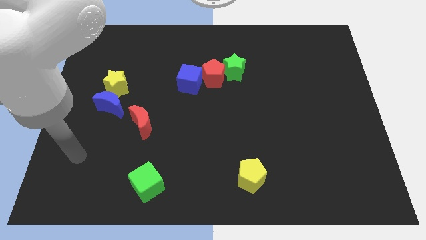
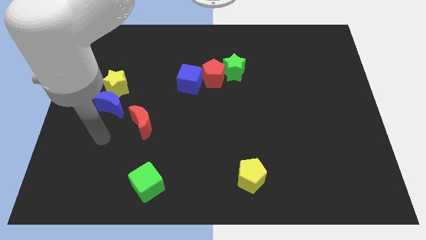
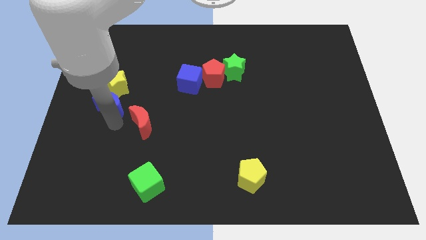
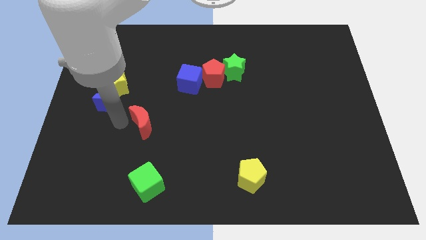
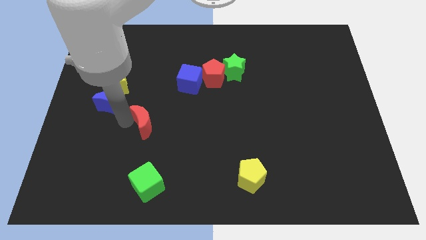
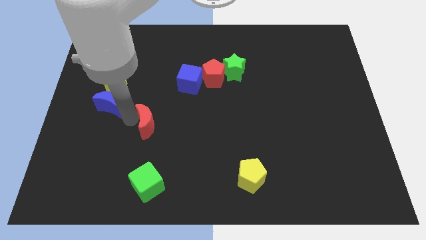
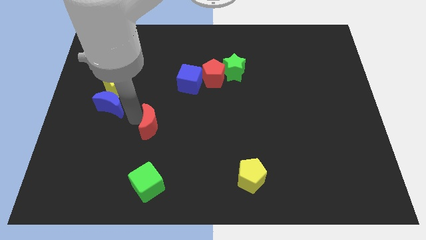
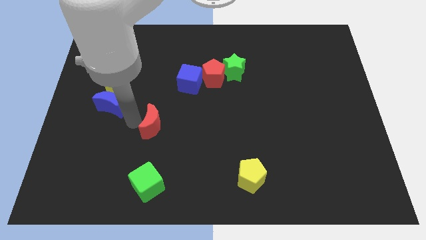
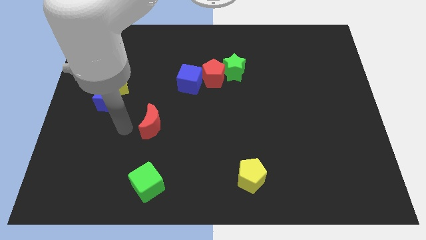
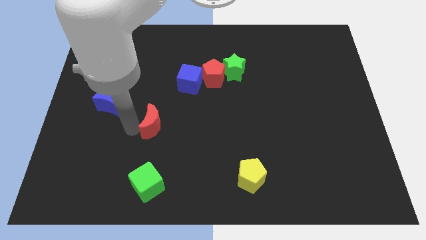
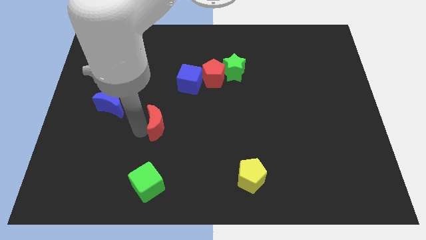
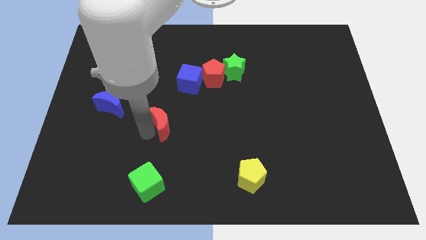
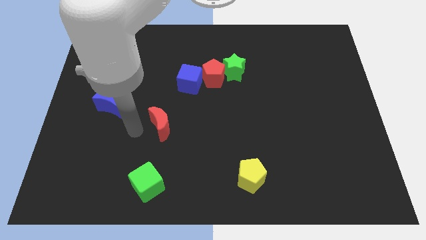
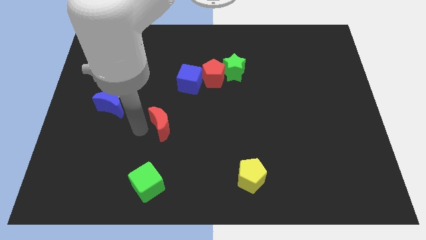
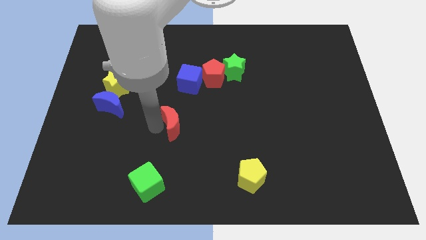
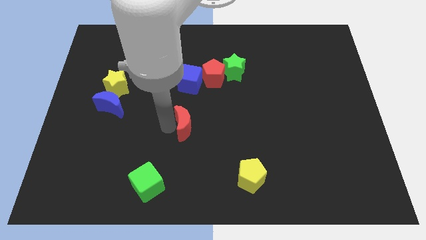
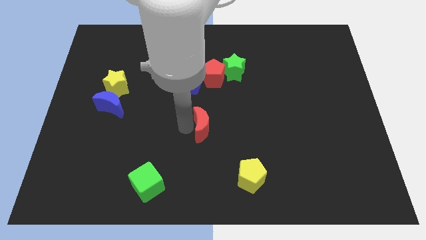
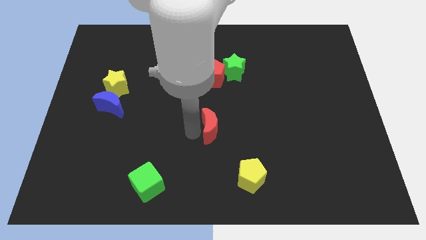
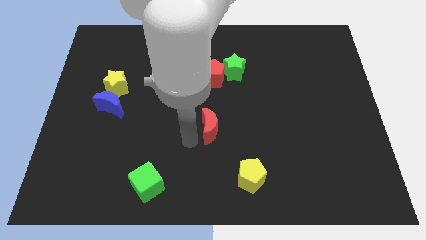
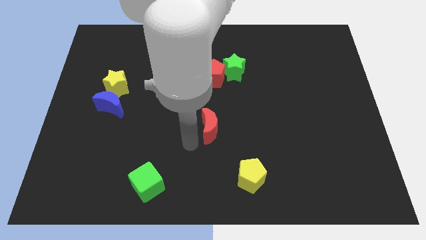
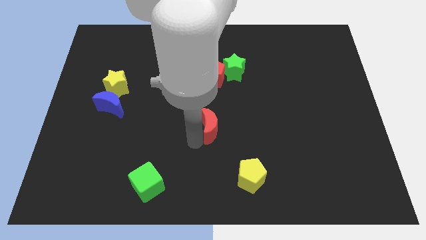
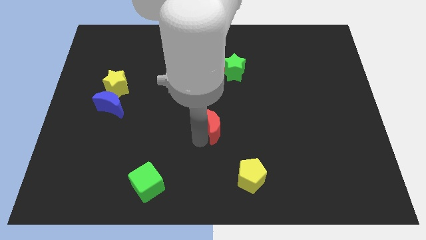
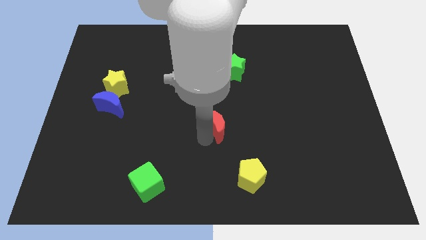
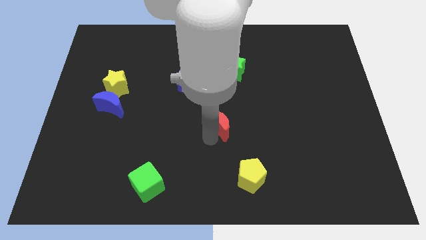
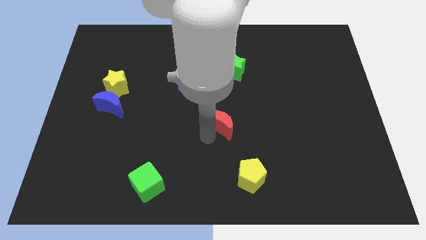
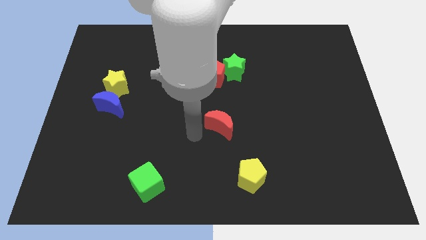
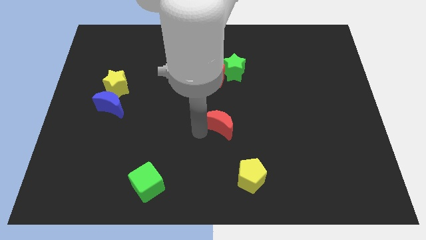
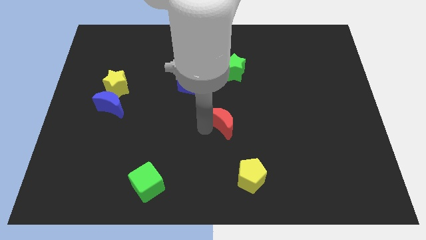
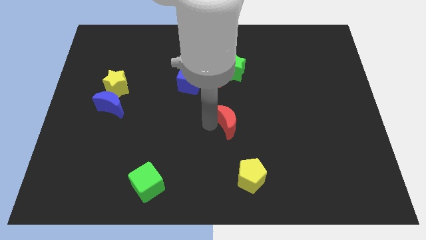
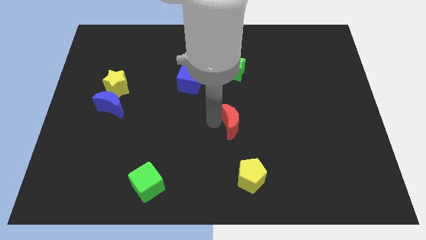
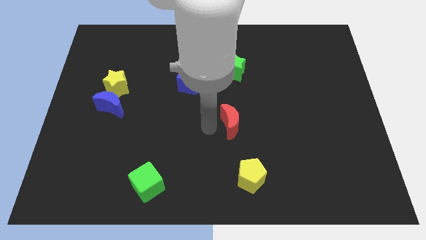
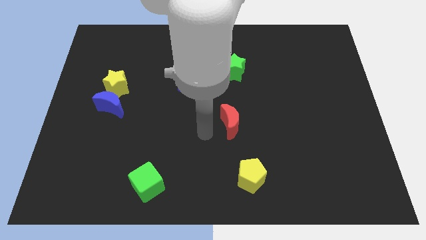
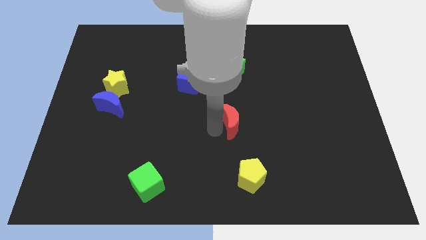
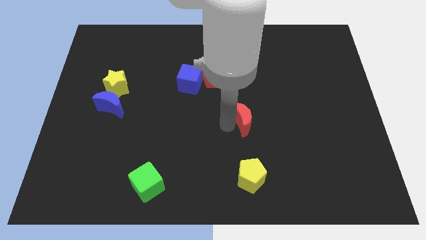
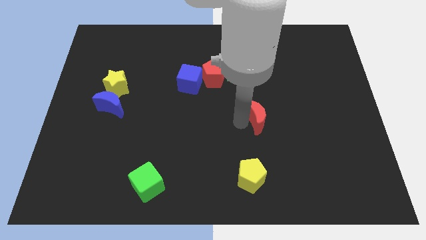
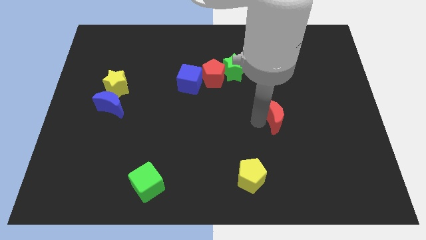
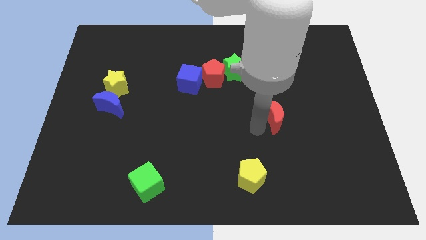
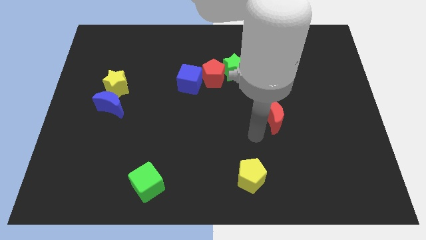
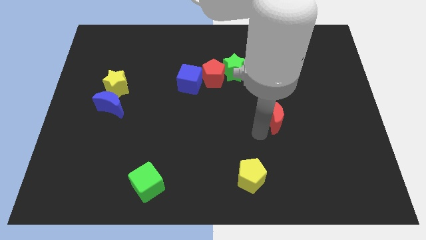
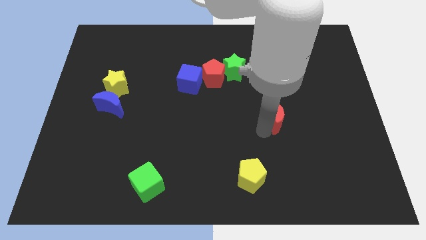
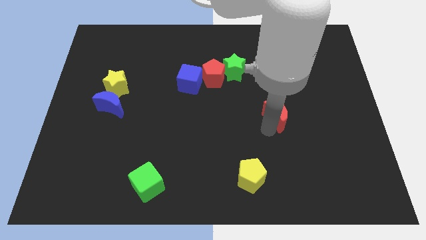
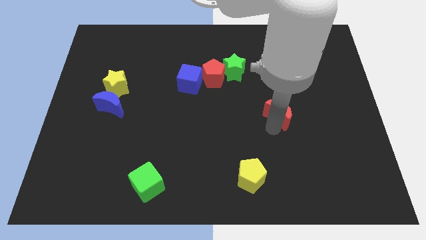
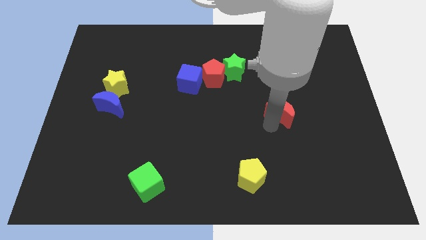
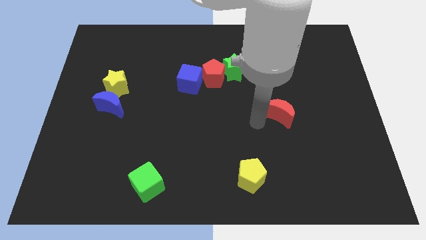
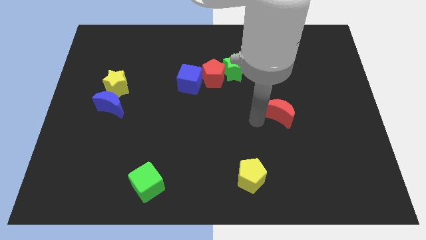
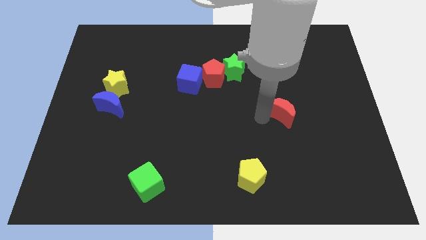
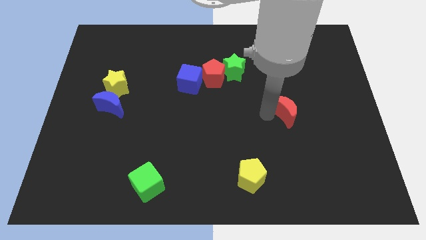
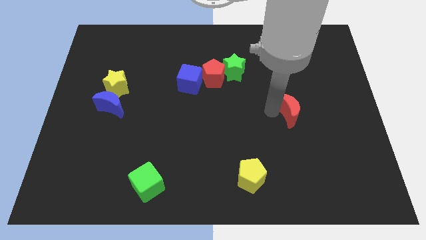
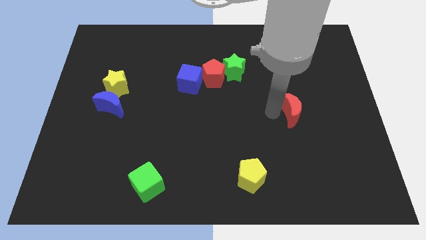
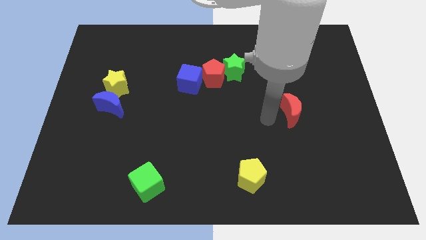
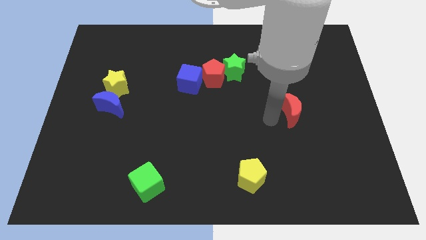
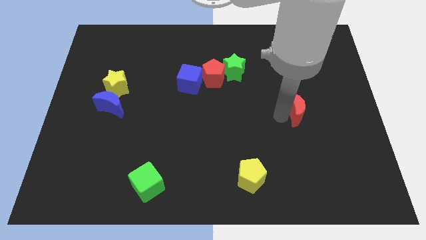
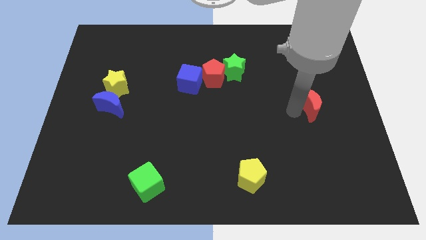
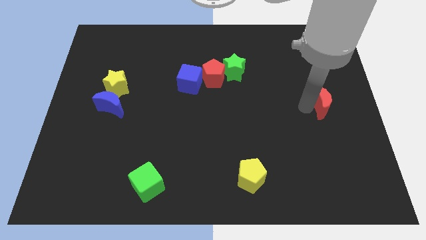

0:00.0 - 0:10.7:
slide the red moon to the center right

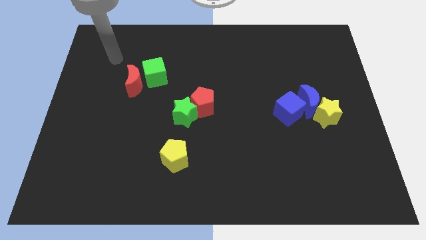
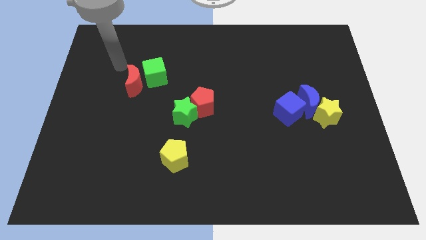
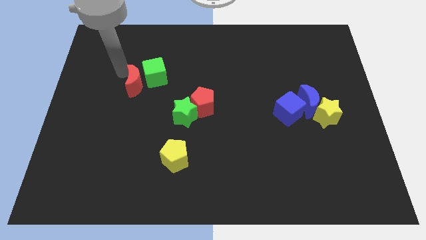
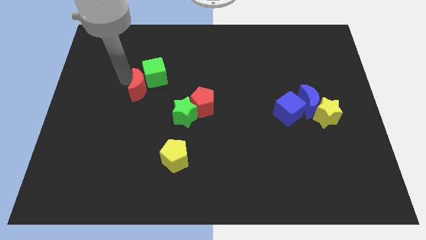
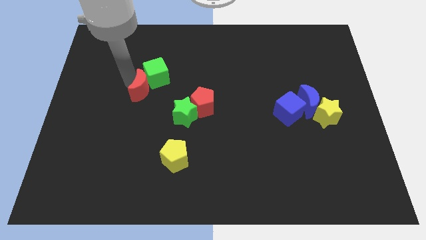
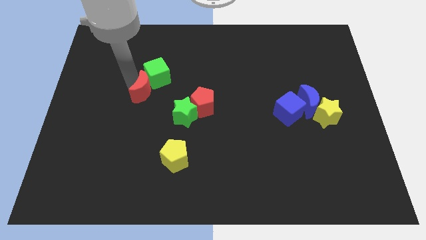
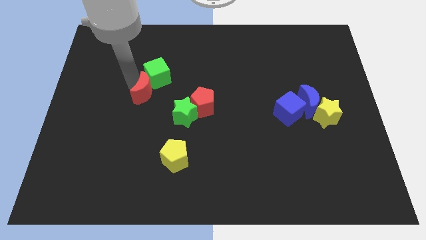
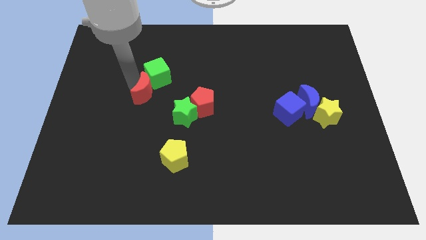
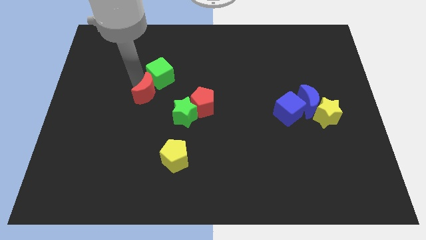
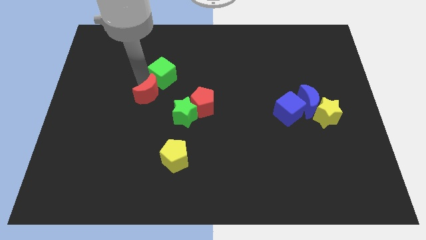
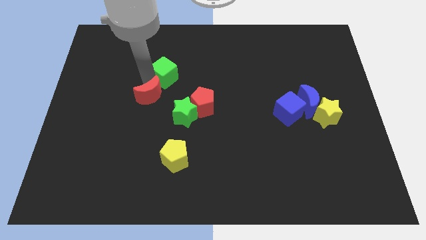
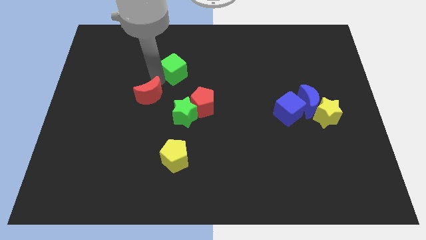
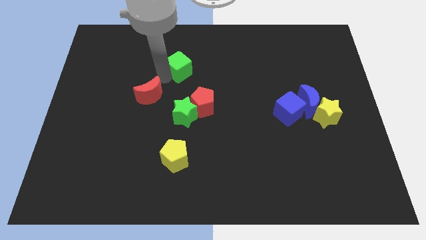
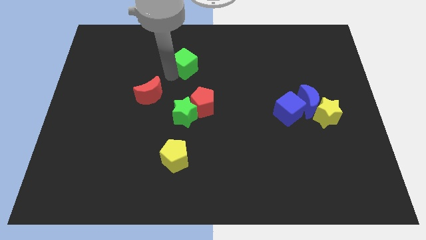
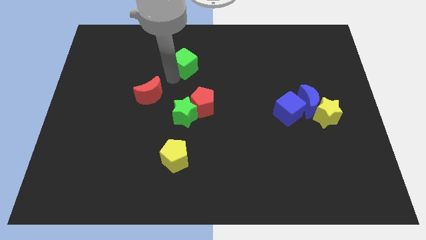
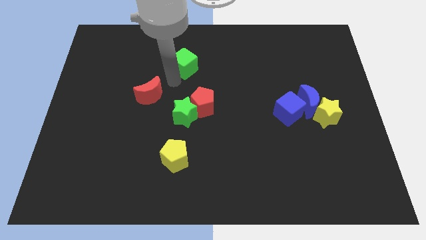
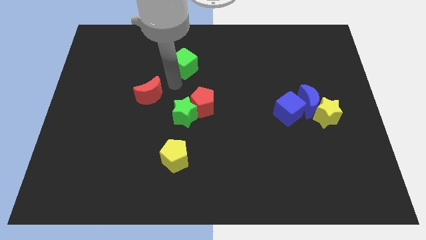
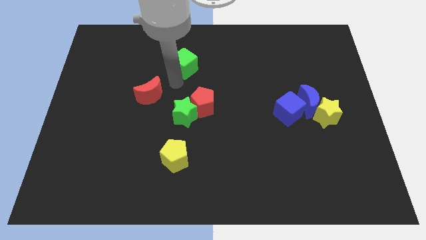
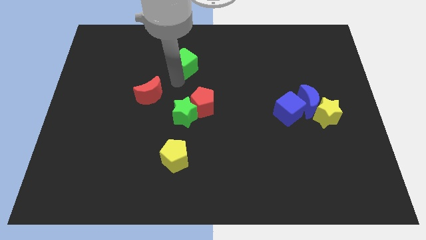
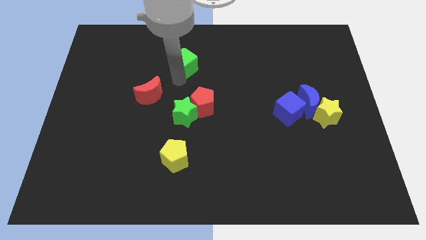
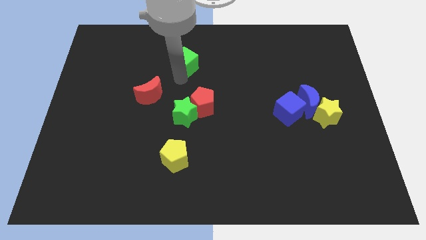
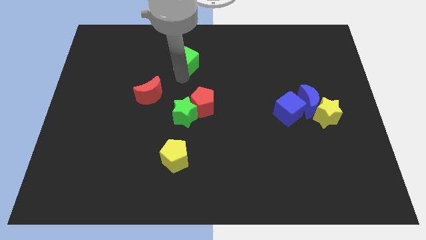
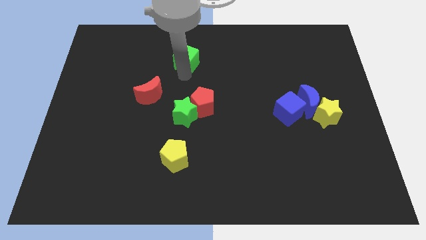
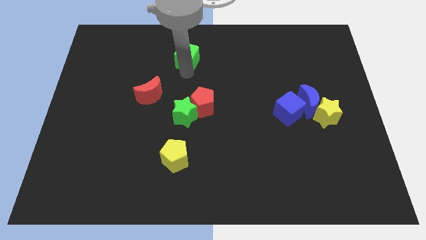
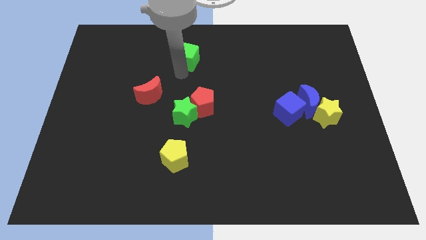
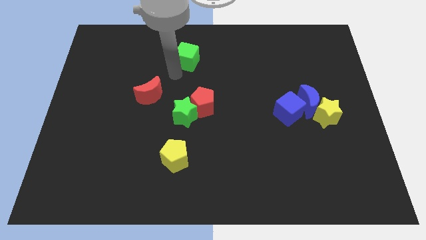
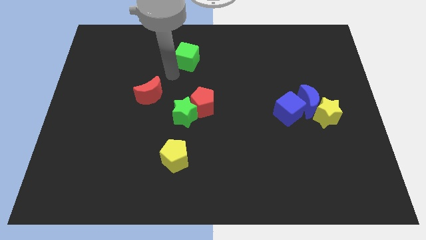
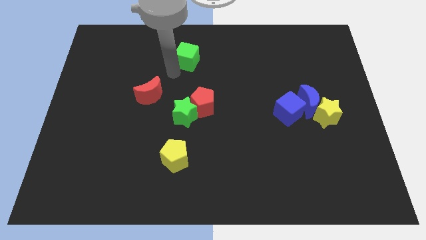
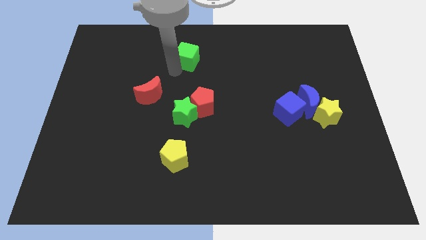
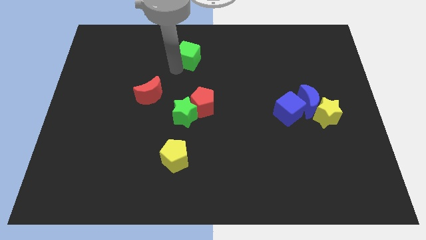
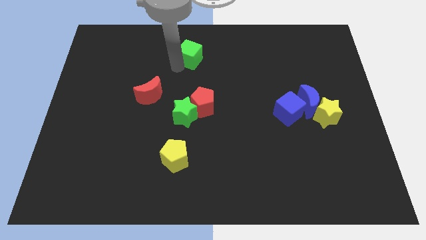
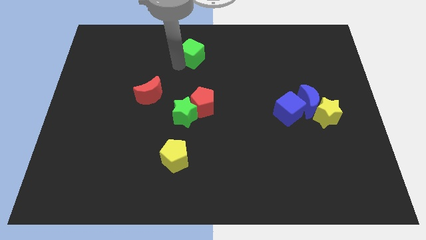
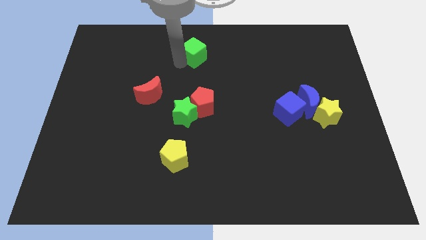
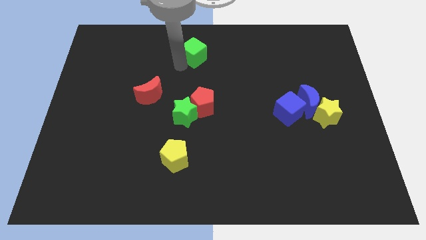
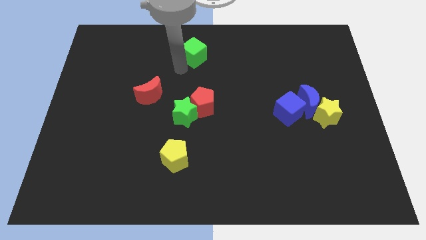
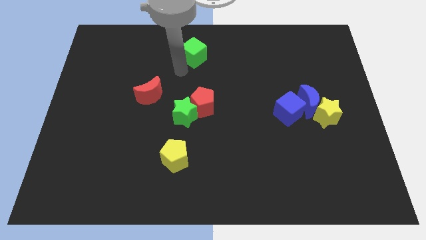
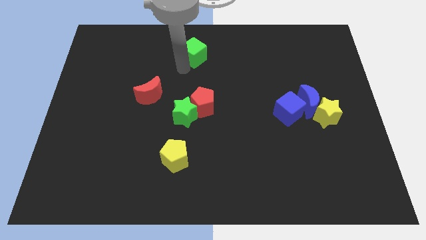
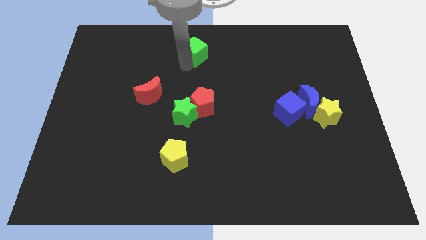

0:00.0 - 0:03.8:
put the green cube to the towards your base
